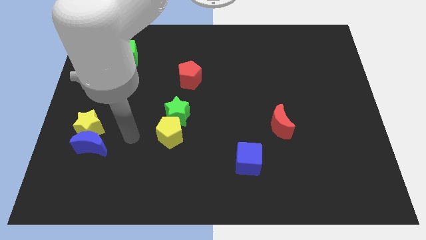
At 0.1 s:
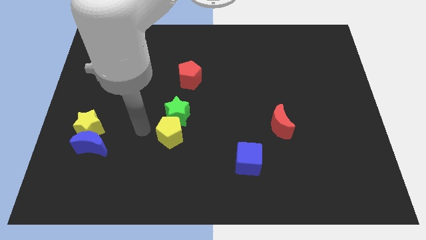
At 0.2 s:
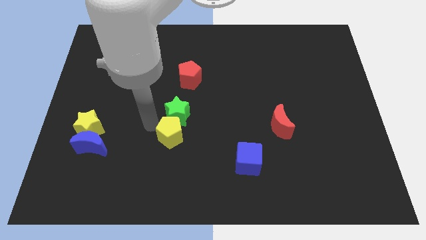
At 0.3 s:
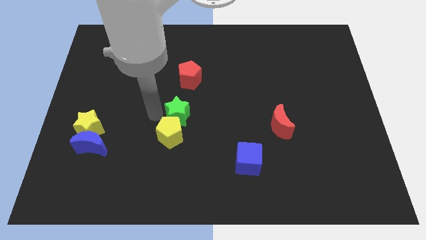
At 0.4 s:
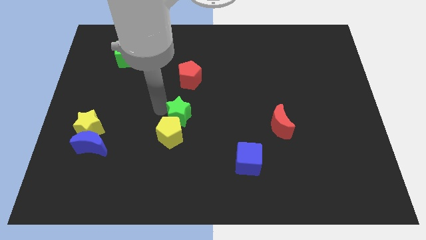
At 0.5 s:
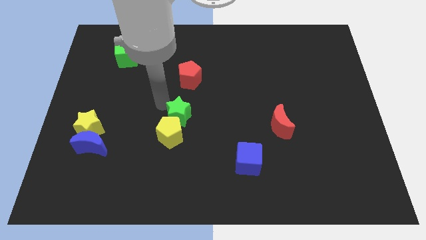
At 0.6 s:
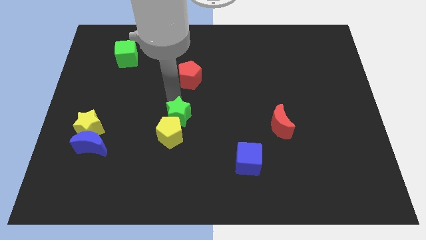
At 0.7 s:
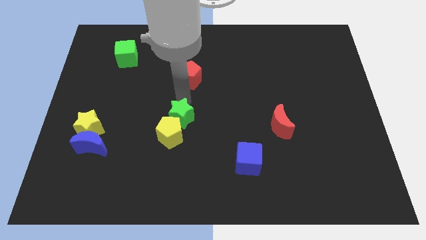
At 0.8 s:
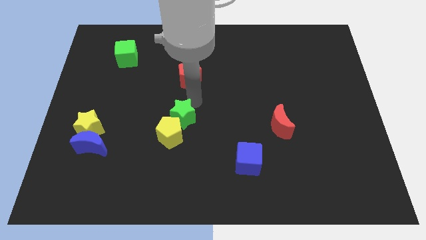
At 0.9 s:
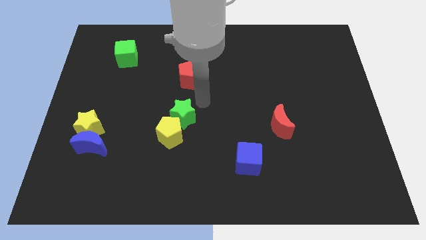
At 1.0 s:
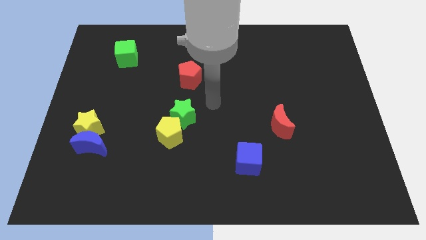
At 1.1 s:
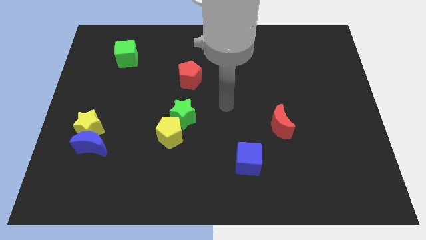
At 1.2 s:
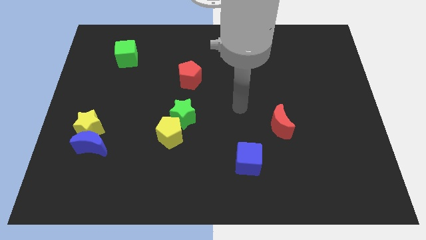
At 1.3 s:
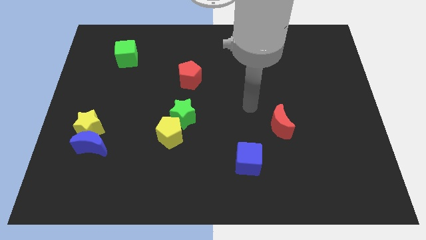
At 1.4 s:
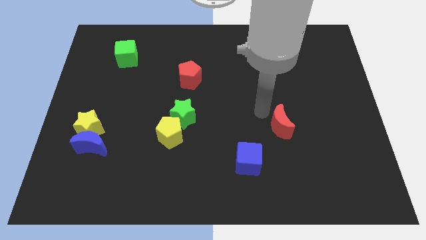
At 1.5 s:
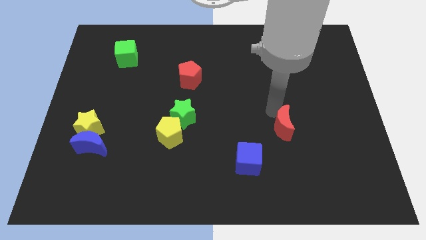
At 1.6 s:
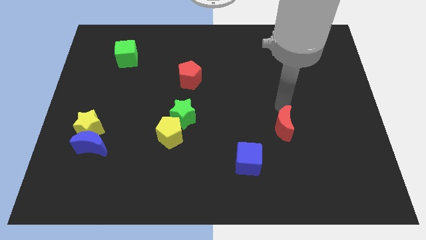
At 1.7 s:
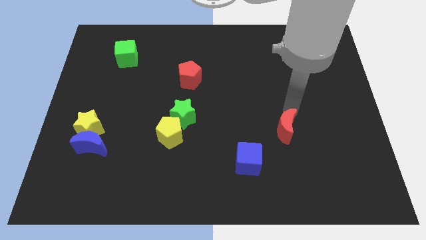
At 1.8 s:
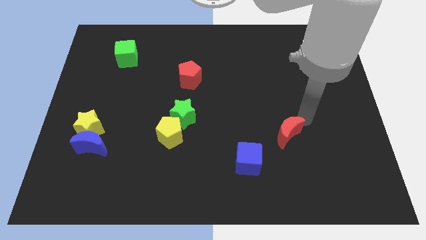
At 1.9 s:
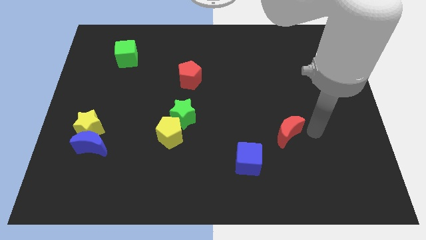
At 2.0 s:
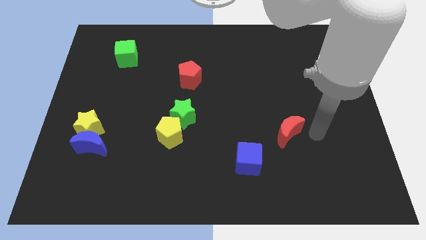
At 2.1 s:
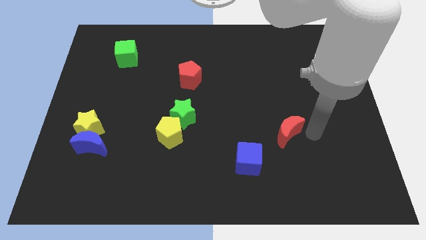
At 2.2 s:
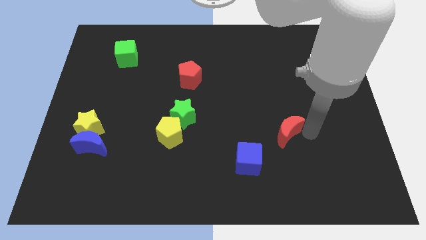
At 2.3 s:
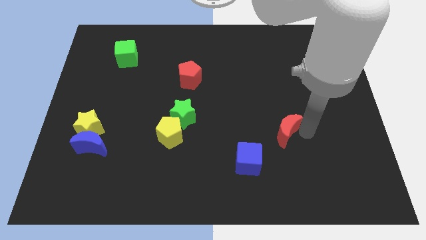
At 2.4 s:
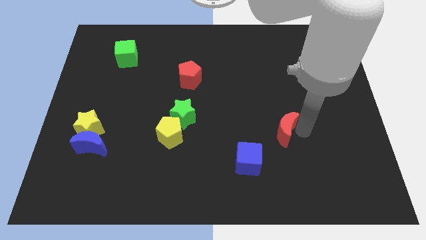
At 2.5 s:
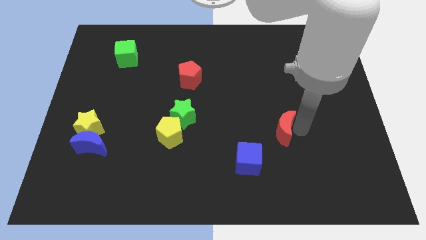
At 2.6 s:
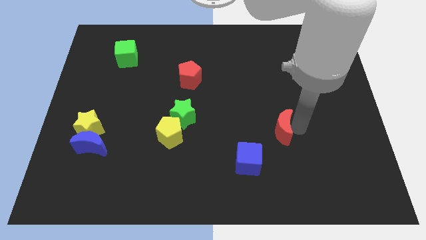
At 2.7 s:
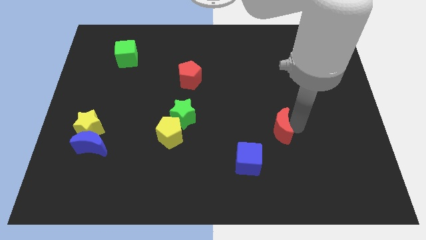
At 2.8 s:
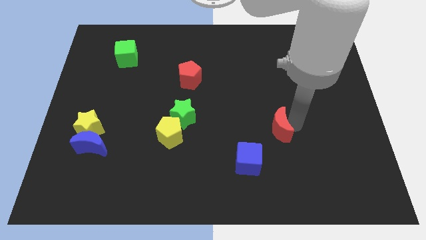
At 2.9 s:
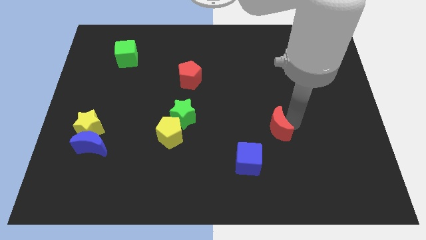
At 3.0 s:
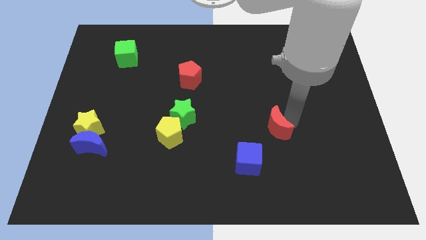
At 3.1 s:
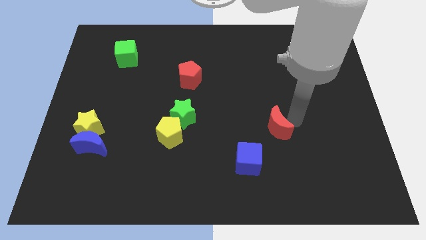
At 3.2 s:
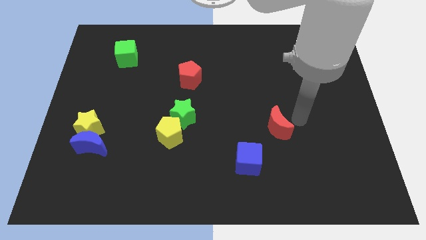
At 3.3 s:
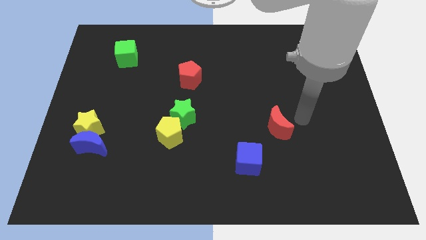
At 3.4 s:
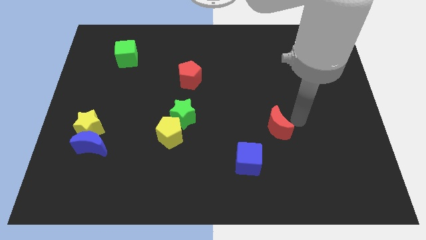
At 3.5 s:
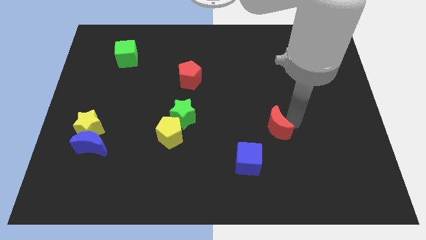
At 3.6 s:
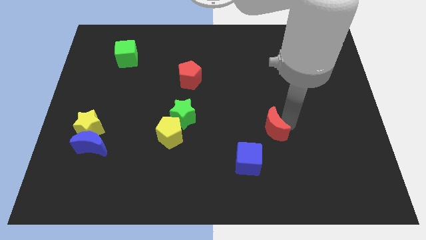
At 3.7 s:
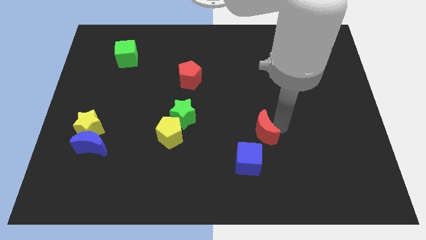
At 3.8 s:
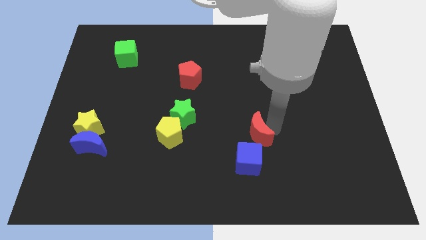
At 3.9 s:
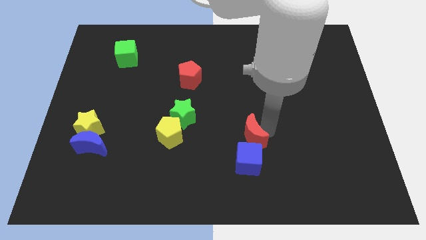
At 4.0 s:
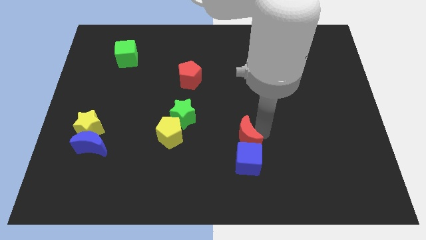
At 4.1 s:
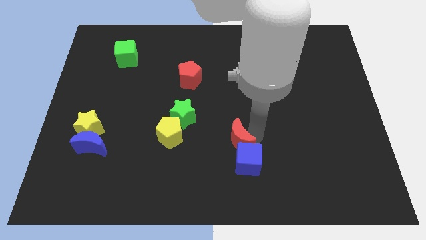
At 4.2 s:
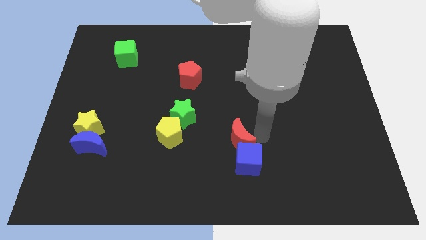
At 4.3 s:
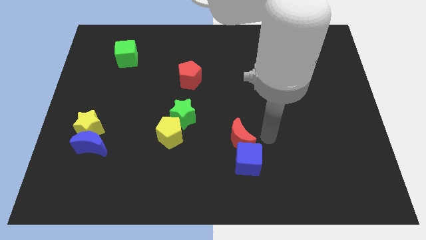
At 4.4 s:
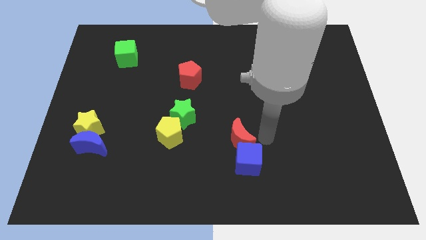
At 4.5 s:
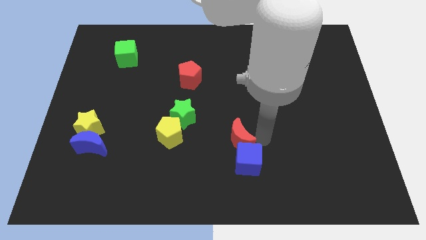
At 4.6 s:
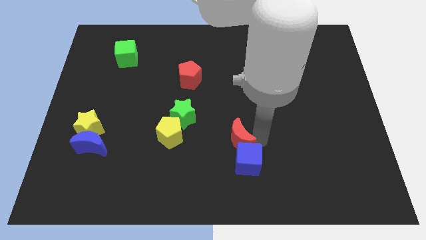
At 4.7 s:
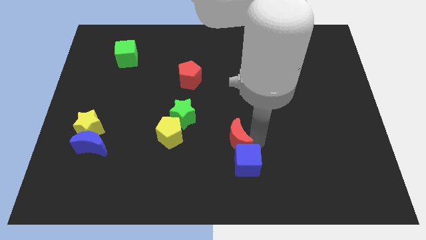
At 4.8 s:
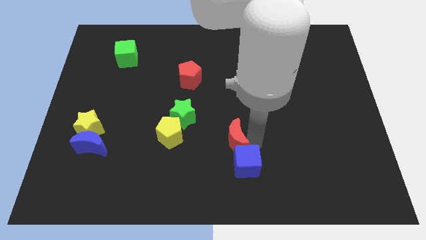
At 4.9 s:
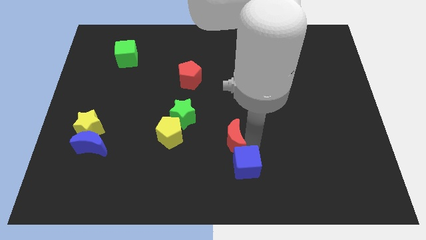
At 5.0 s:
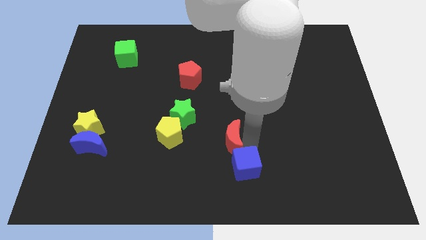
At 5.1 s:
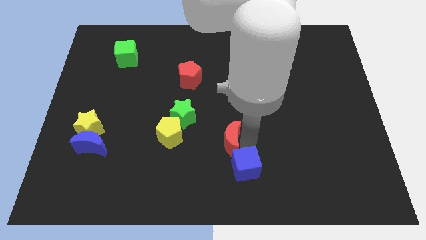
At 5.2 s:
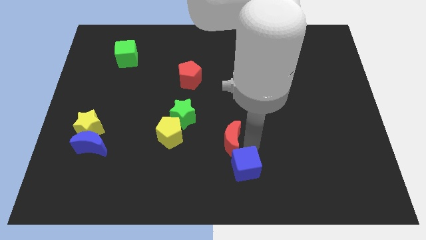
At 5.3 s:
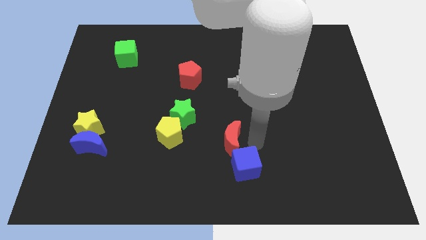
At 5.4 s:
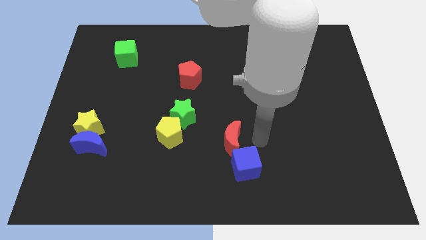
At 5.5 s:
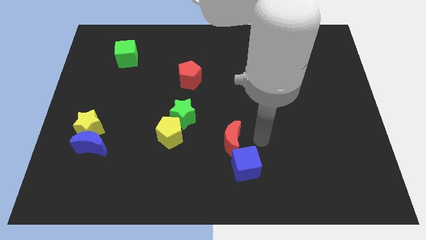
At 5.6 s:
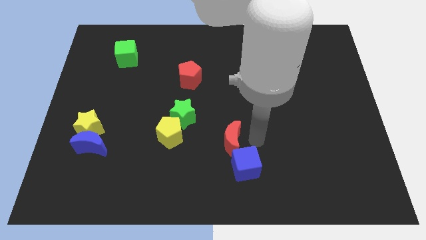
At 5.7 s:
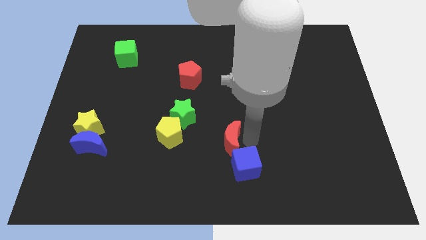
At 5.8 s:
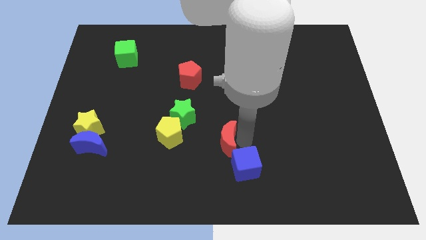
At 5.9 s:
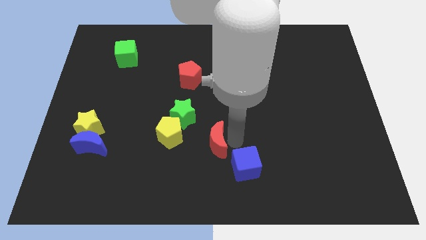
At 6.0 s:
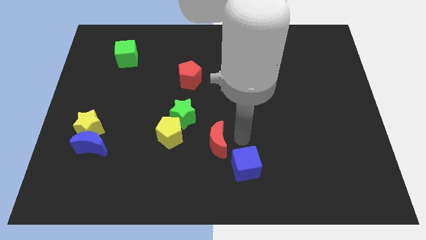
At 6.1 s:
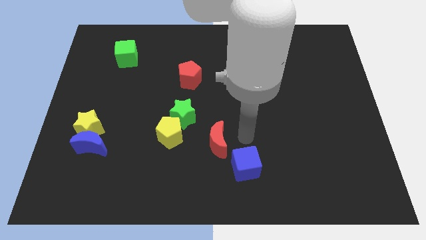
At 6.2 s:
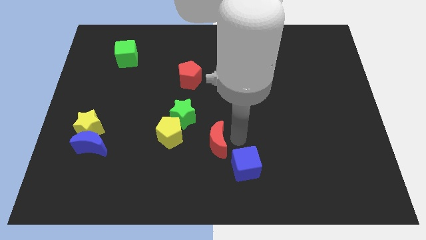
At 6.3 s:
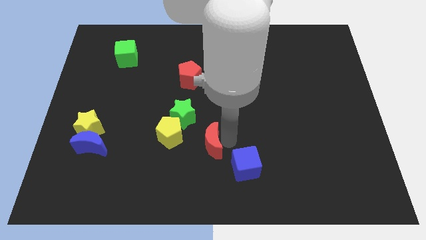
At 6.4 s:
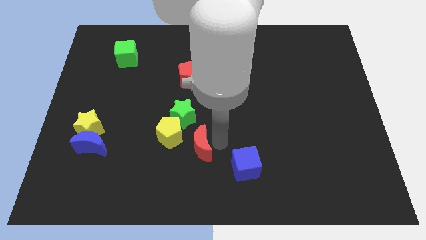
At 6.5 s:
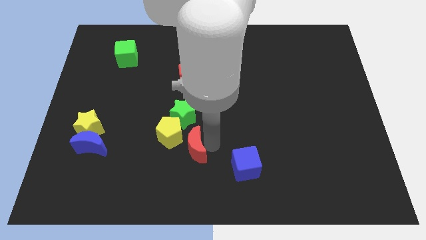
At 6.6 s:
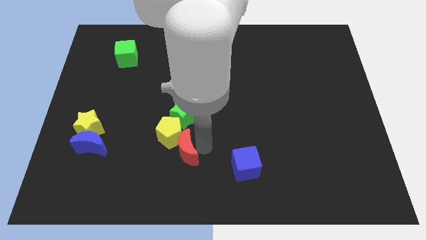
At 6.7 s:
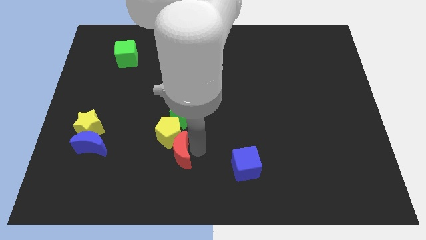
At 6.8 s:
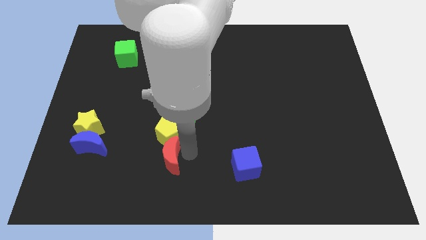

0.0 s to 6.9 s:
slide the red moon diagonally down and to the left of the yellow pentagon

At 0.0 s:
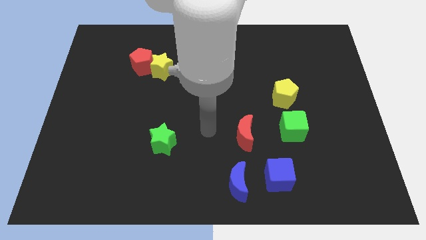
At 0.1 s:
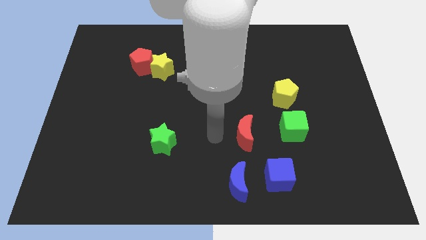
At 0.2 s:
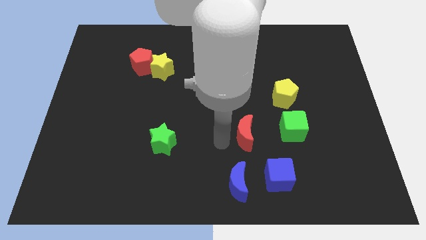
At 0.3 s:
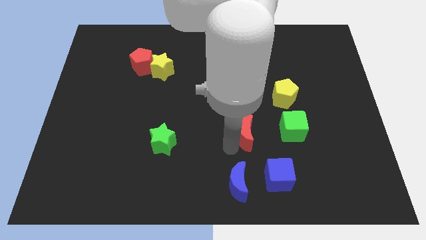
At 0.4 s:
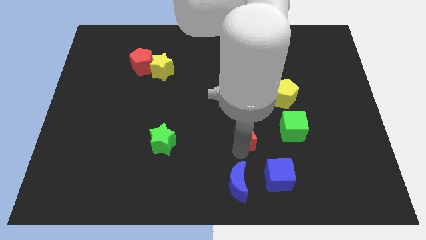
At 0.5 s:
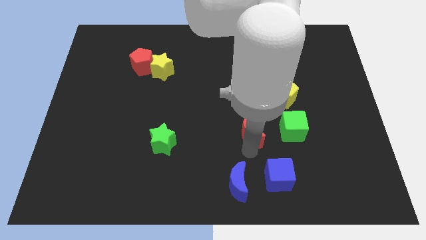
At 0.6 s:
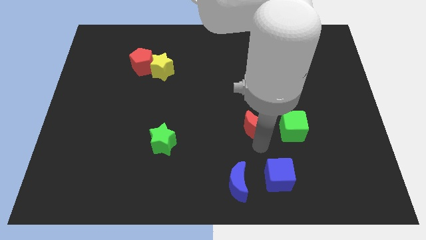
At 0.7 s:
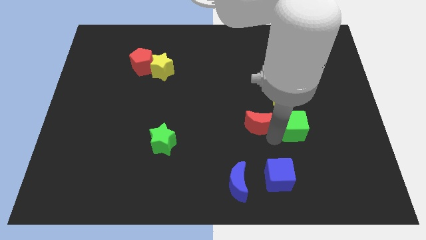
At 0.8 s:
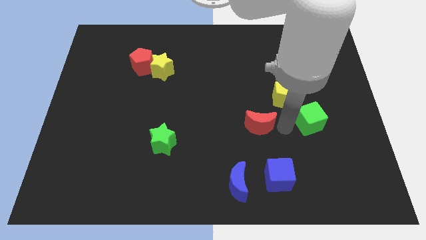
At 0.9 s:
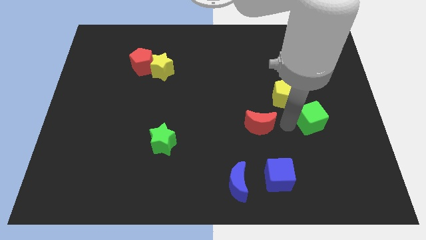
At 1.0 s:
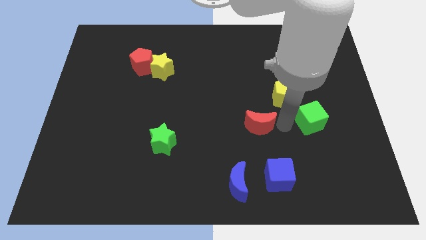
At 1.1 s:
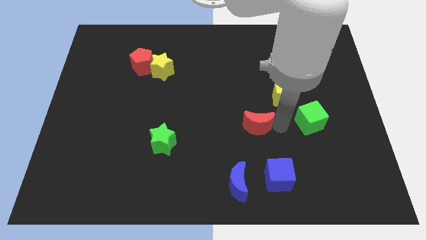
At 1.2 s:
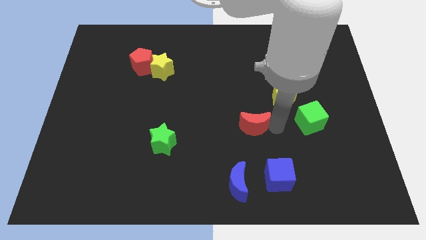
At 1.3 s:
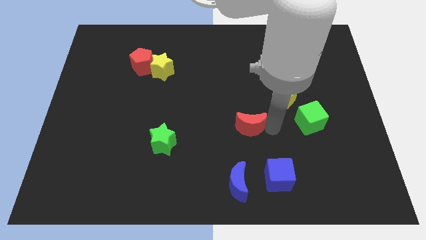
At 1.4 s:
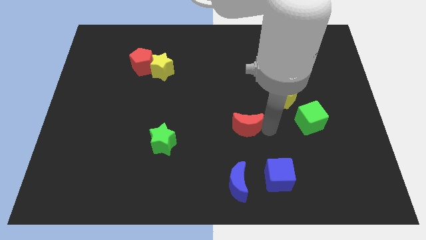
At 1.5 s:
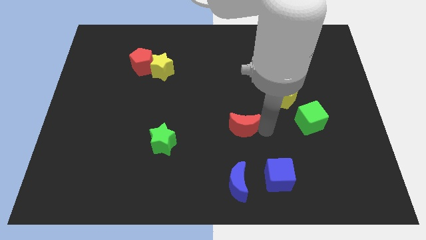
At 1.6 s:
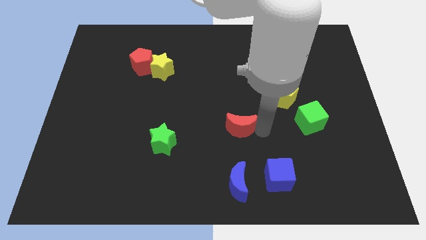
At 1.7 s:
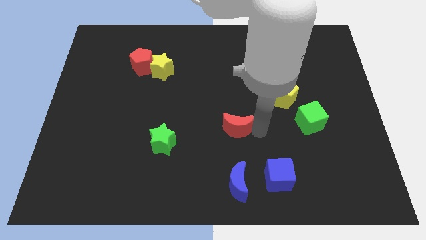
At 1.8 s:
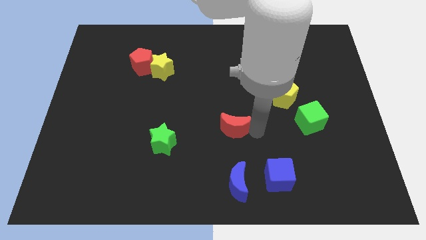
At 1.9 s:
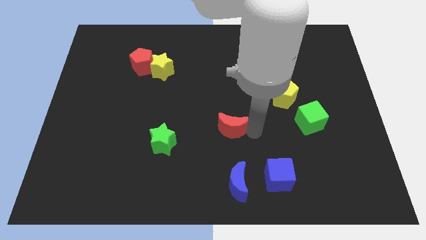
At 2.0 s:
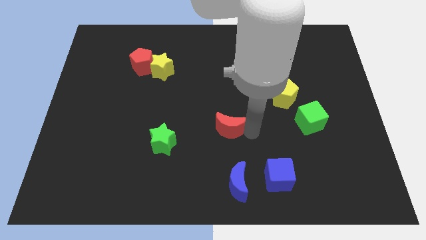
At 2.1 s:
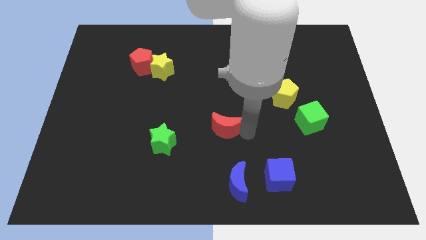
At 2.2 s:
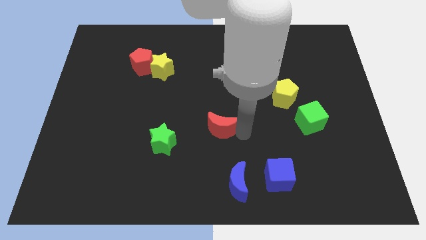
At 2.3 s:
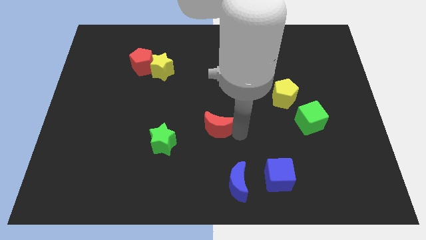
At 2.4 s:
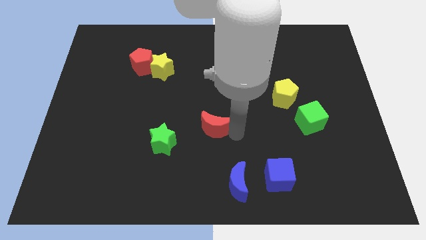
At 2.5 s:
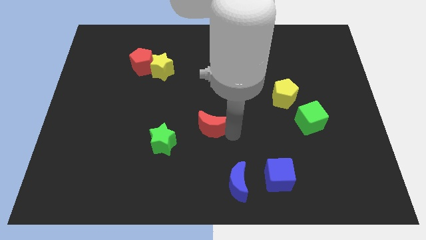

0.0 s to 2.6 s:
put the red moon to the top right side of the green star
